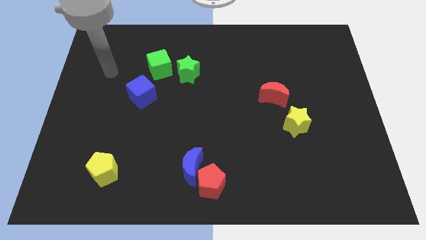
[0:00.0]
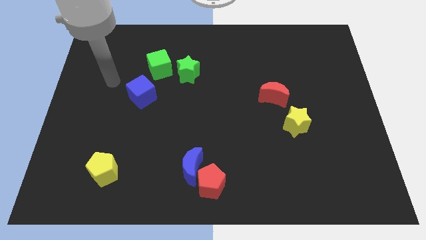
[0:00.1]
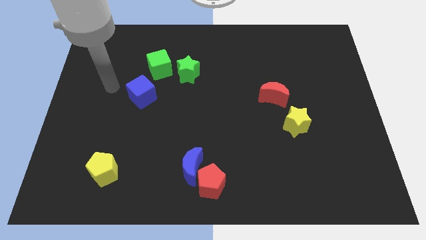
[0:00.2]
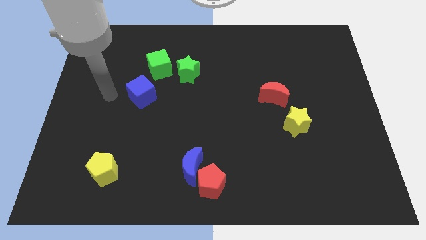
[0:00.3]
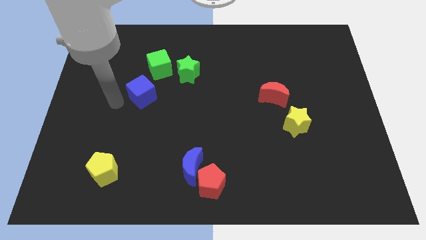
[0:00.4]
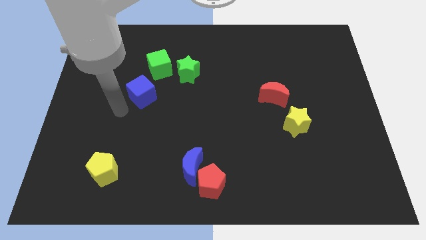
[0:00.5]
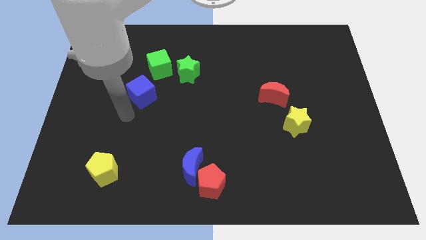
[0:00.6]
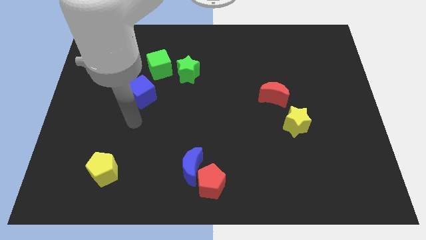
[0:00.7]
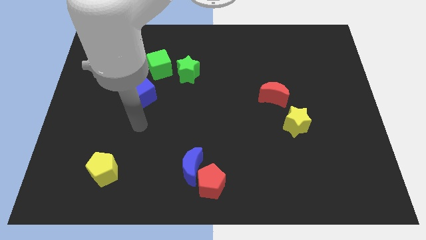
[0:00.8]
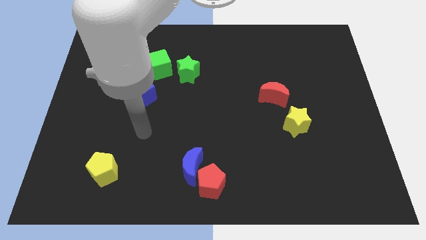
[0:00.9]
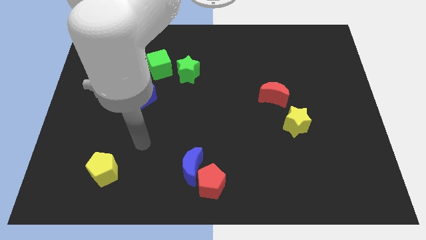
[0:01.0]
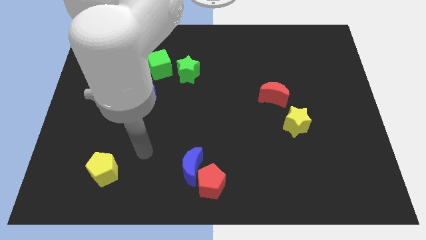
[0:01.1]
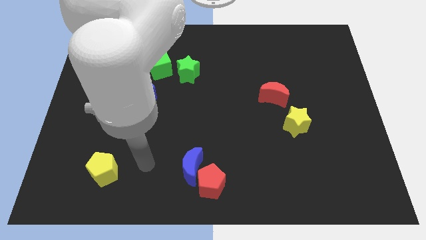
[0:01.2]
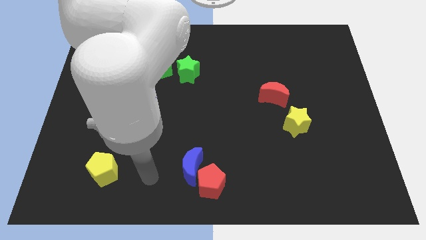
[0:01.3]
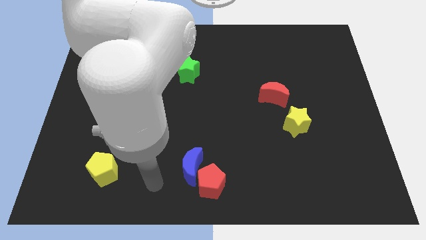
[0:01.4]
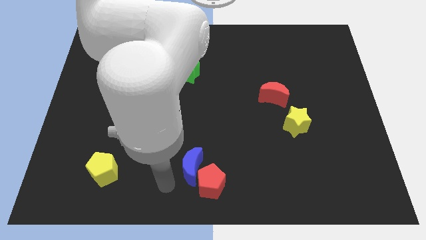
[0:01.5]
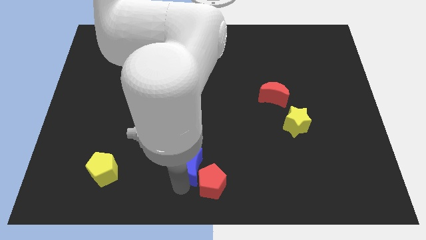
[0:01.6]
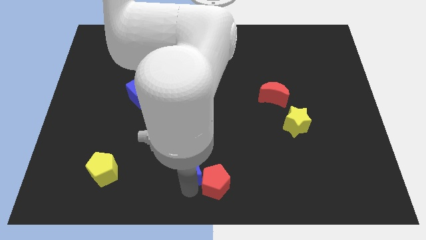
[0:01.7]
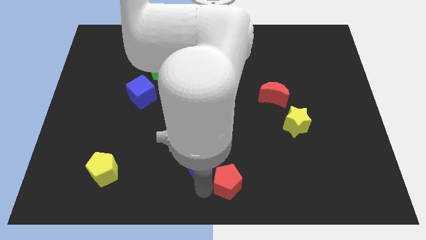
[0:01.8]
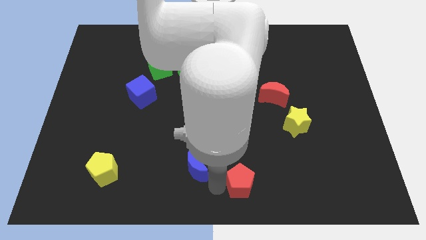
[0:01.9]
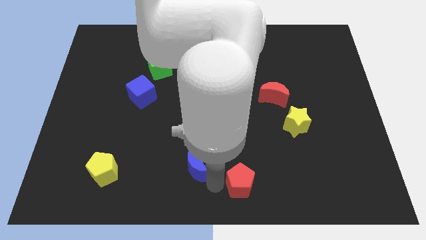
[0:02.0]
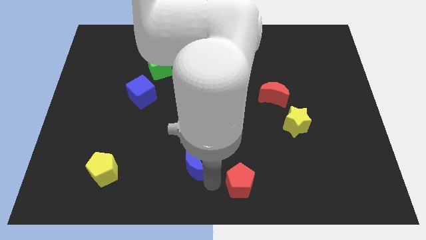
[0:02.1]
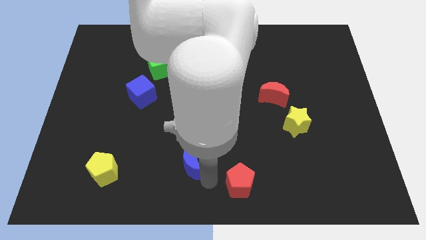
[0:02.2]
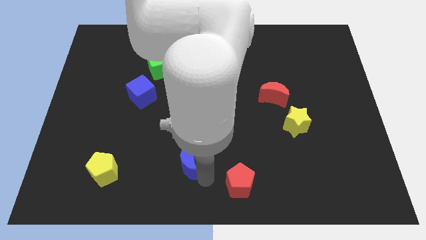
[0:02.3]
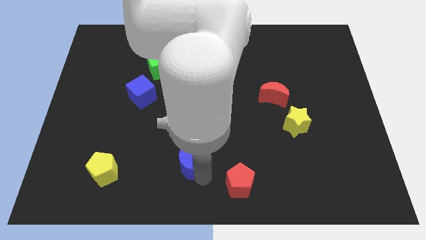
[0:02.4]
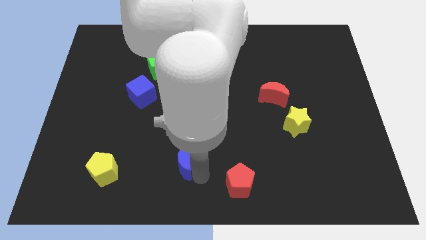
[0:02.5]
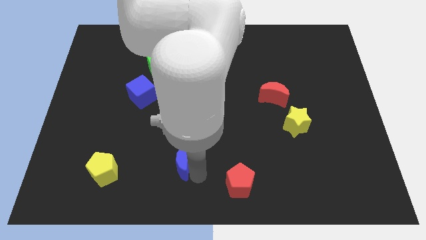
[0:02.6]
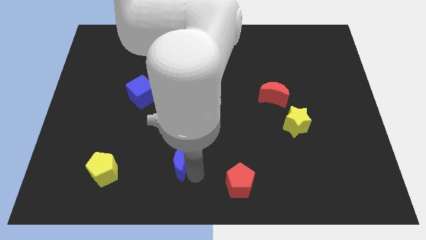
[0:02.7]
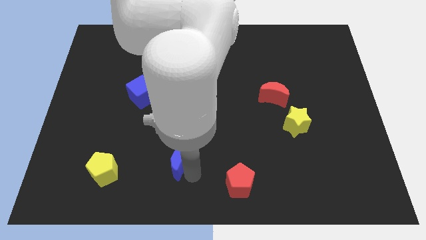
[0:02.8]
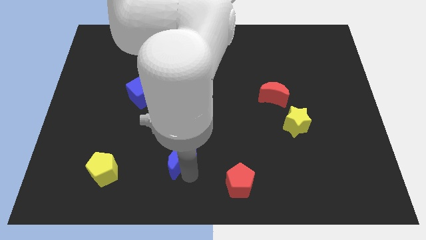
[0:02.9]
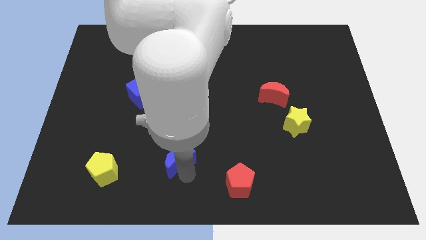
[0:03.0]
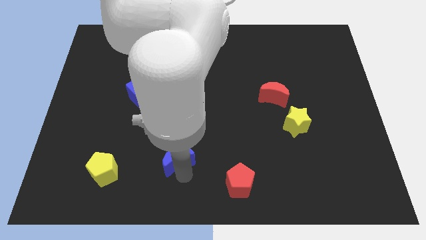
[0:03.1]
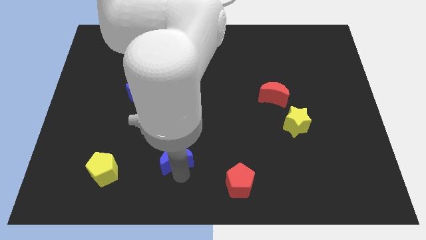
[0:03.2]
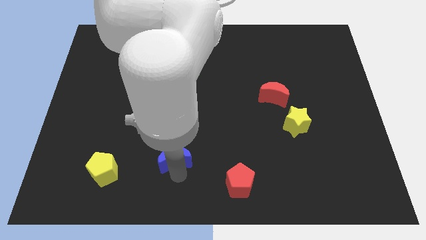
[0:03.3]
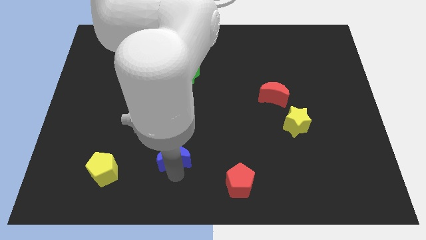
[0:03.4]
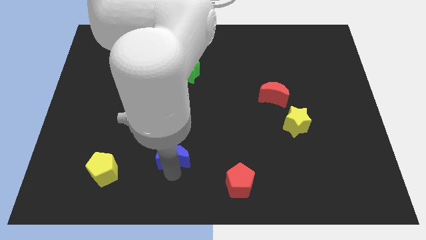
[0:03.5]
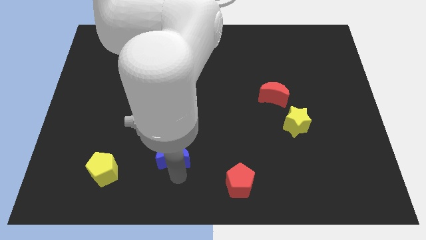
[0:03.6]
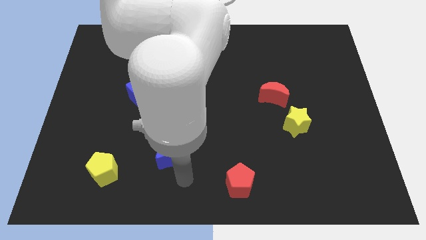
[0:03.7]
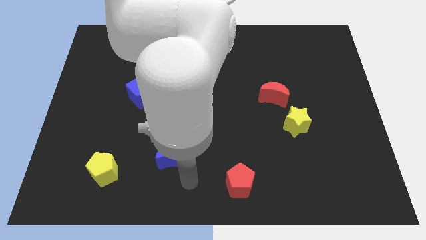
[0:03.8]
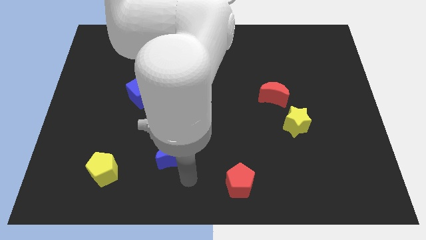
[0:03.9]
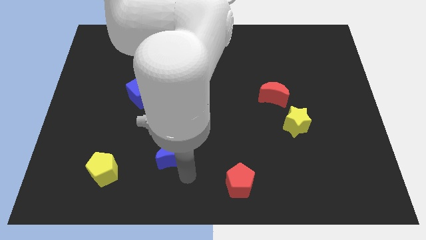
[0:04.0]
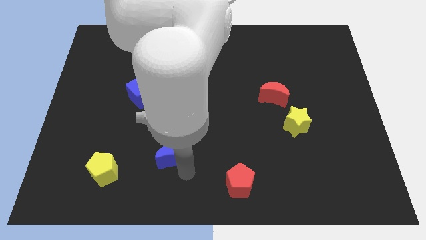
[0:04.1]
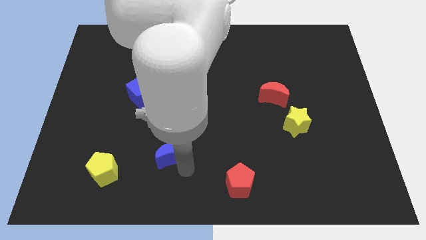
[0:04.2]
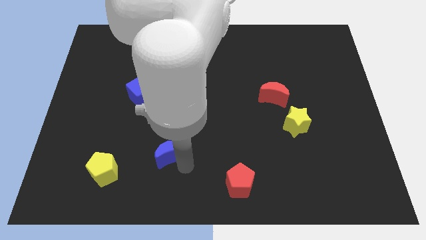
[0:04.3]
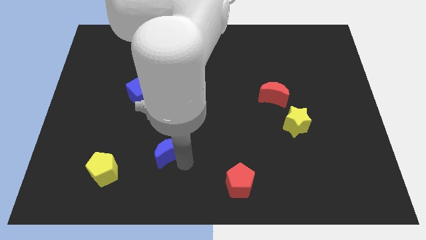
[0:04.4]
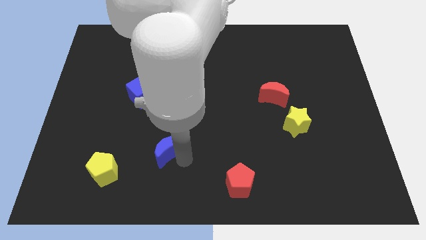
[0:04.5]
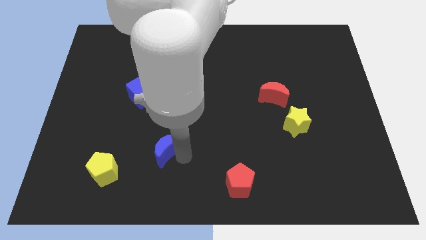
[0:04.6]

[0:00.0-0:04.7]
push the blue moon a little diagonally up and to the left

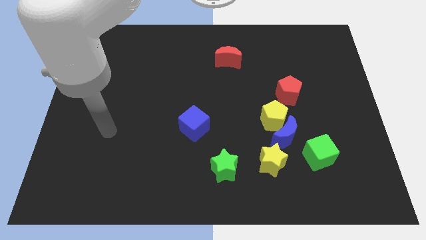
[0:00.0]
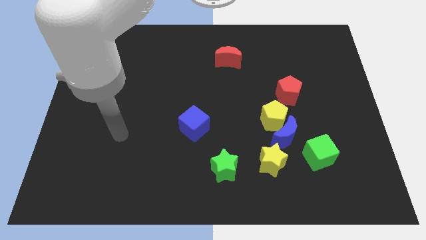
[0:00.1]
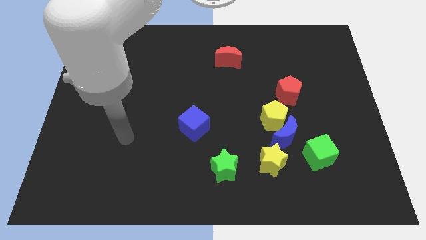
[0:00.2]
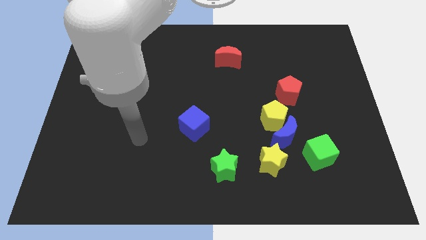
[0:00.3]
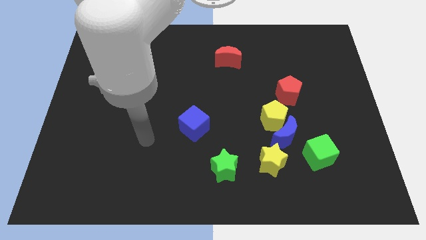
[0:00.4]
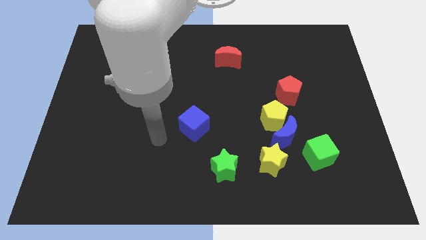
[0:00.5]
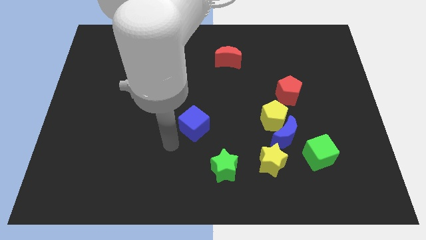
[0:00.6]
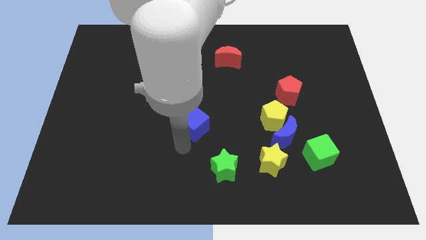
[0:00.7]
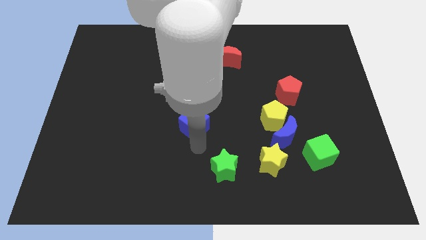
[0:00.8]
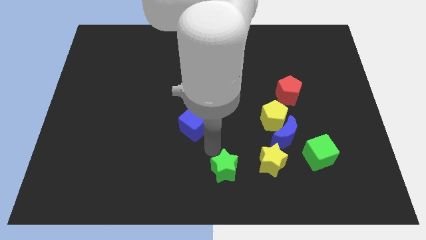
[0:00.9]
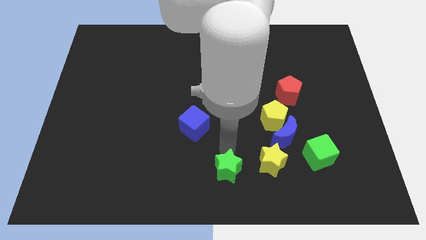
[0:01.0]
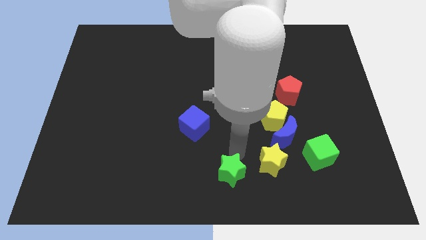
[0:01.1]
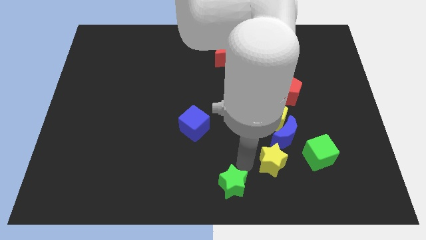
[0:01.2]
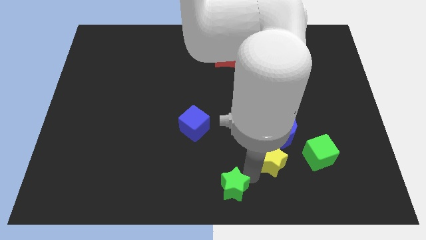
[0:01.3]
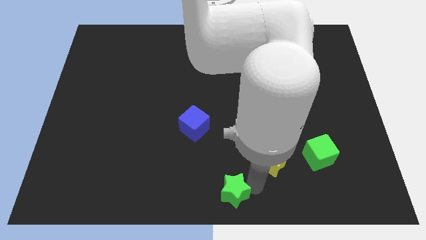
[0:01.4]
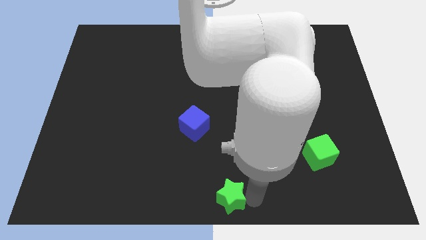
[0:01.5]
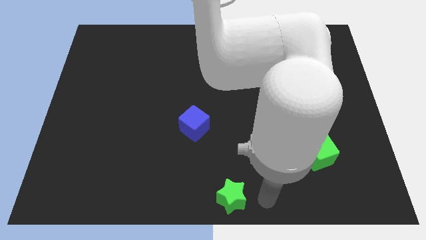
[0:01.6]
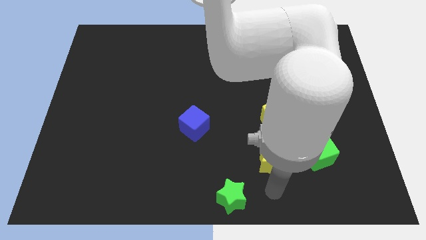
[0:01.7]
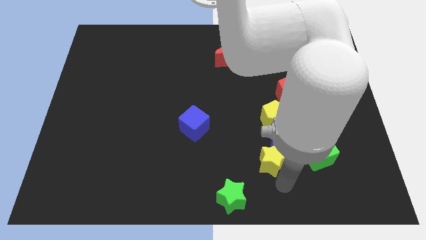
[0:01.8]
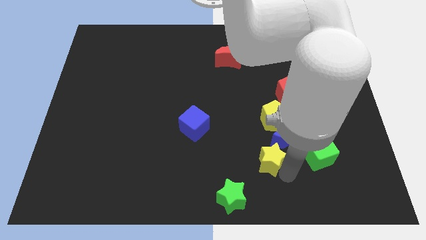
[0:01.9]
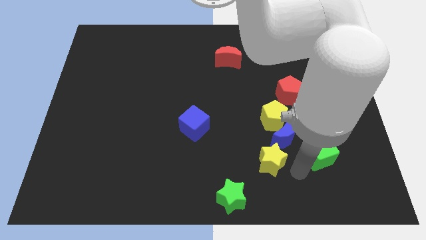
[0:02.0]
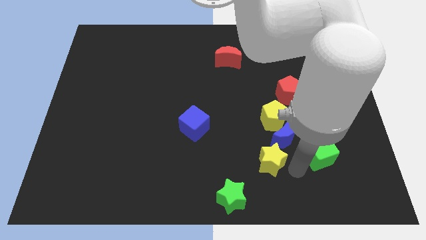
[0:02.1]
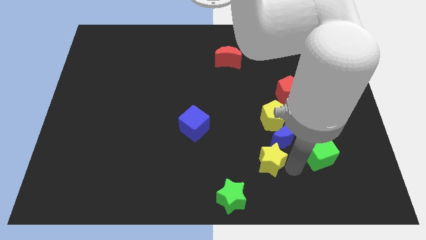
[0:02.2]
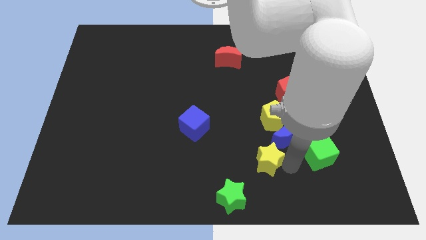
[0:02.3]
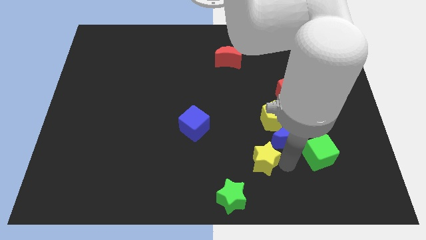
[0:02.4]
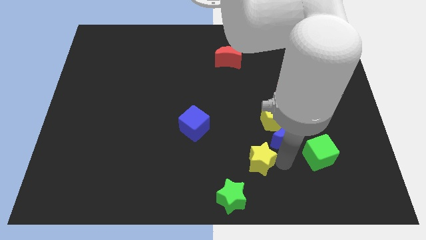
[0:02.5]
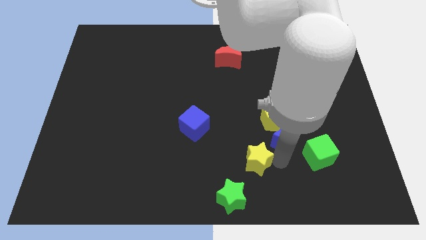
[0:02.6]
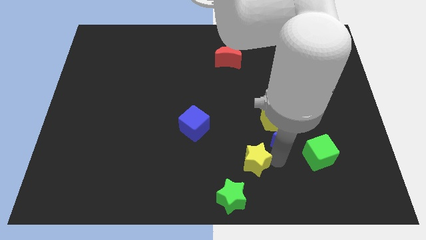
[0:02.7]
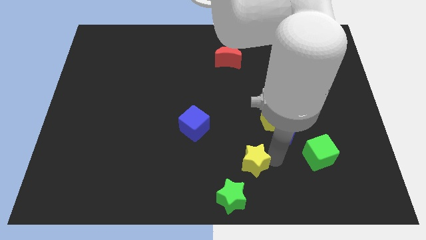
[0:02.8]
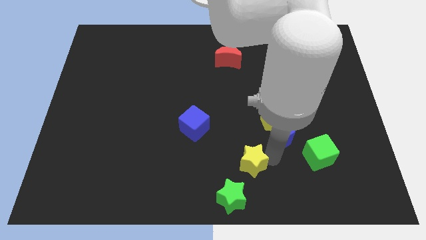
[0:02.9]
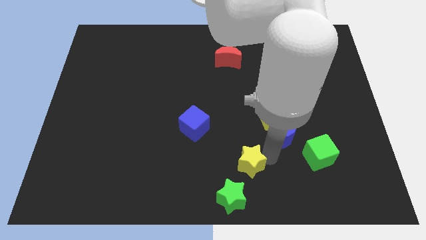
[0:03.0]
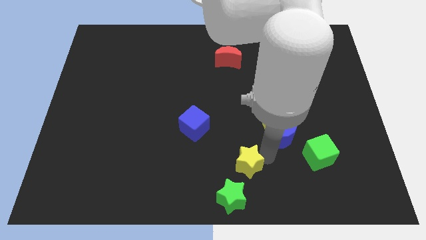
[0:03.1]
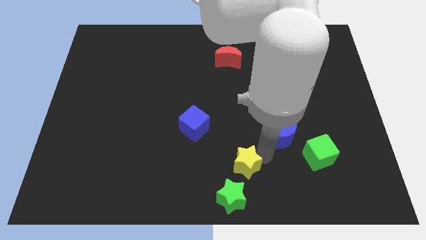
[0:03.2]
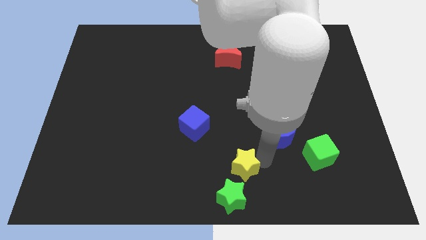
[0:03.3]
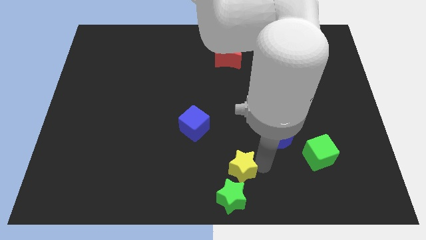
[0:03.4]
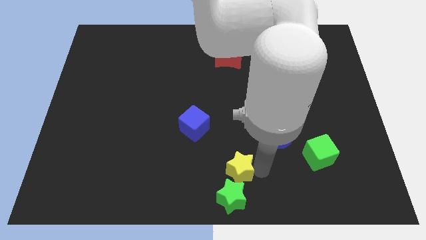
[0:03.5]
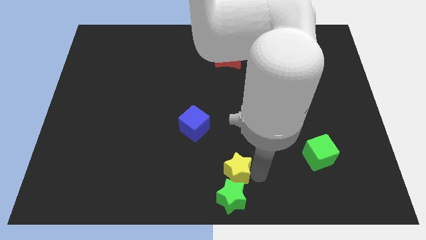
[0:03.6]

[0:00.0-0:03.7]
slightly push the yellow star to the left
